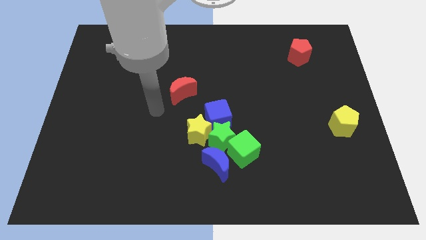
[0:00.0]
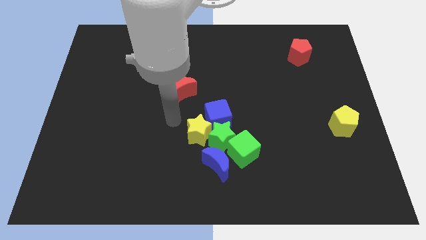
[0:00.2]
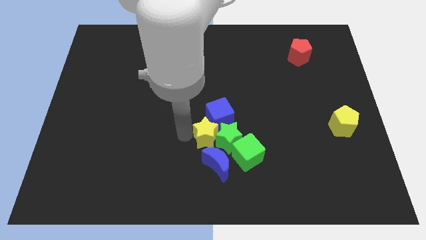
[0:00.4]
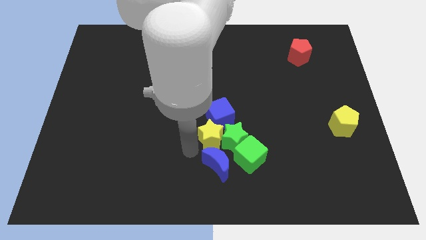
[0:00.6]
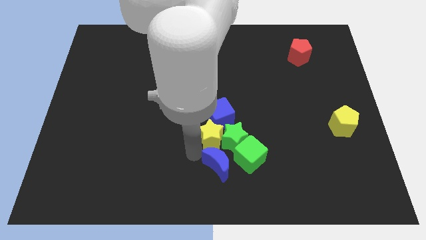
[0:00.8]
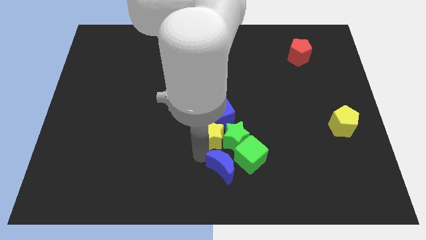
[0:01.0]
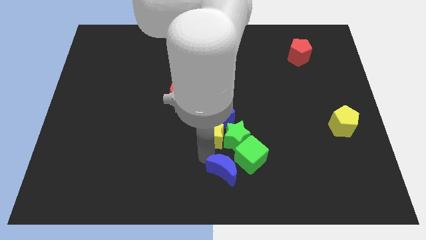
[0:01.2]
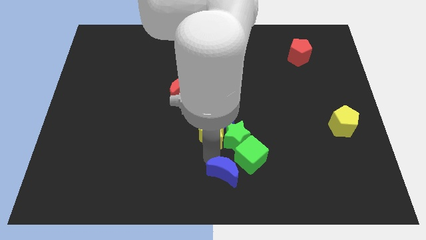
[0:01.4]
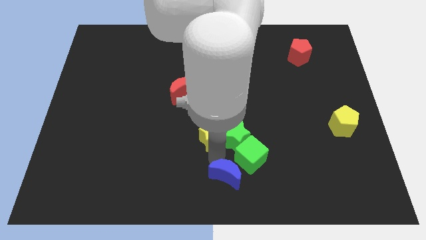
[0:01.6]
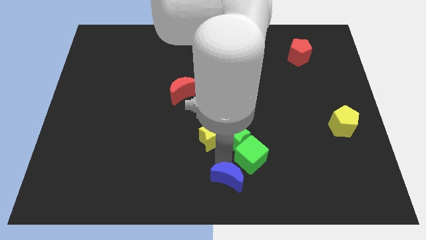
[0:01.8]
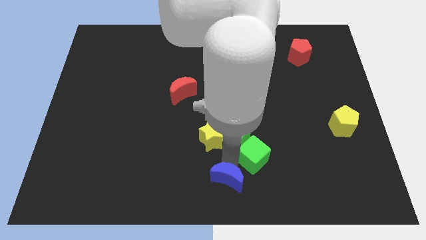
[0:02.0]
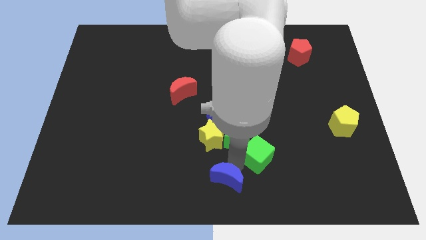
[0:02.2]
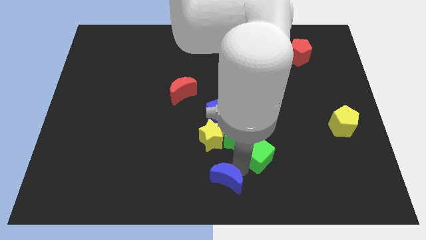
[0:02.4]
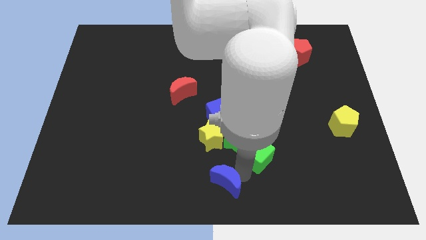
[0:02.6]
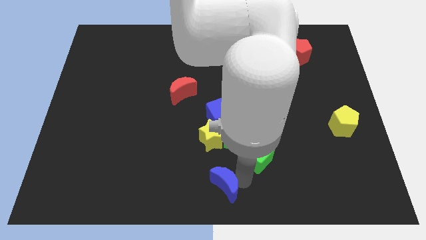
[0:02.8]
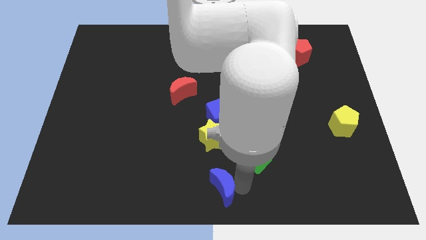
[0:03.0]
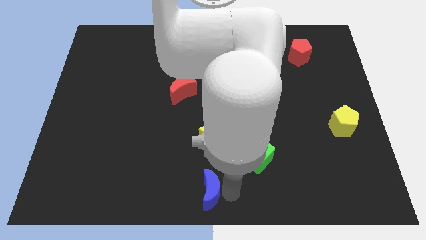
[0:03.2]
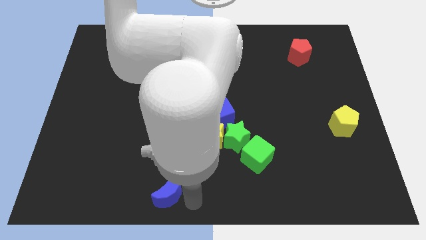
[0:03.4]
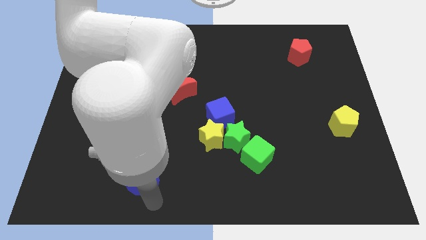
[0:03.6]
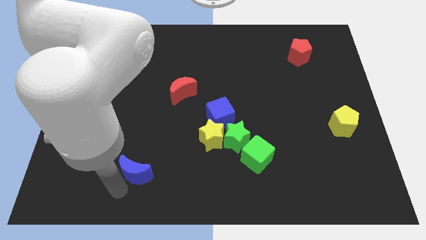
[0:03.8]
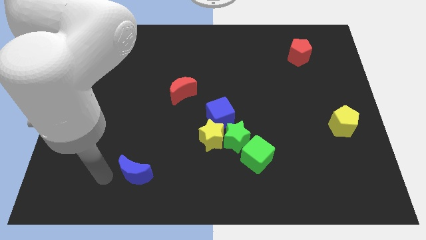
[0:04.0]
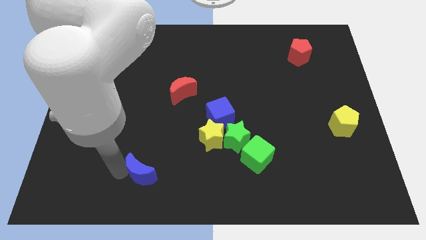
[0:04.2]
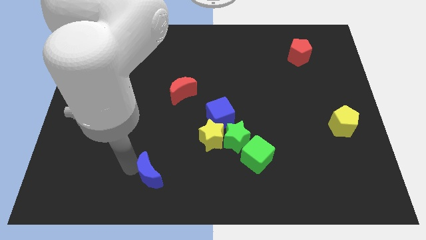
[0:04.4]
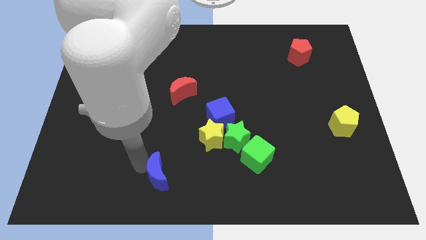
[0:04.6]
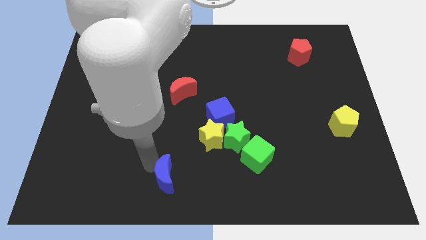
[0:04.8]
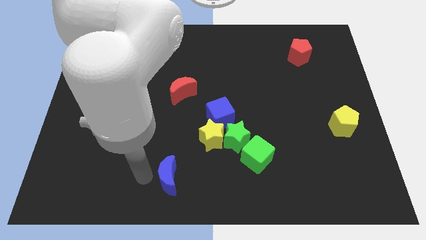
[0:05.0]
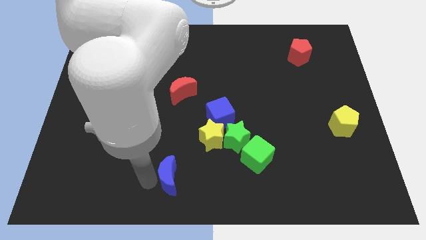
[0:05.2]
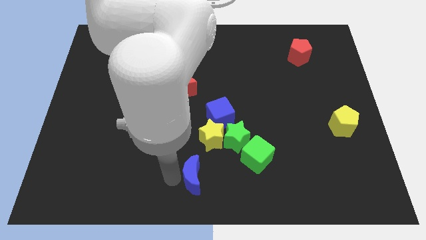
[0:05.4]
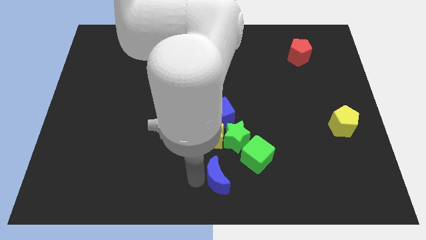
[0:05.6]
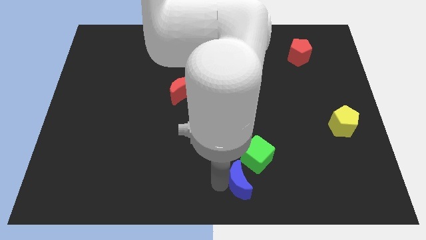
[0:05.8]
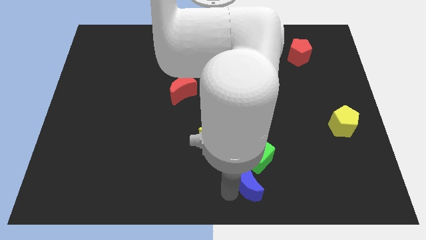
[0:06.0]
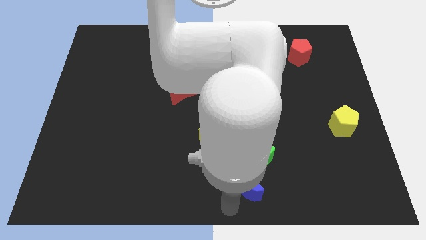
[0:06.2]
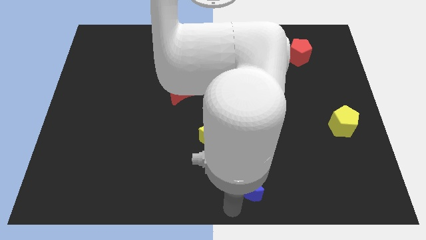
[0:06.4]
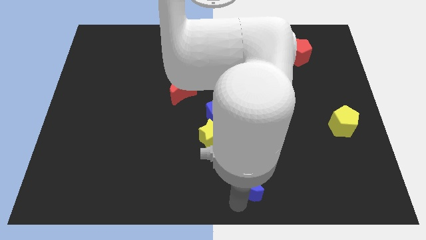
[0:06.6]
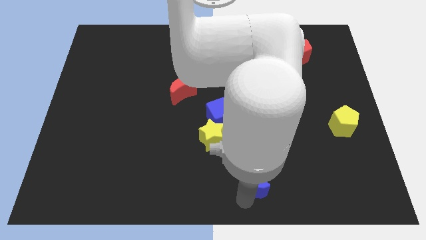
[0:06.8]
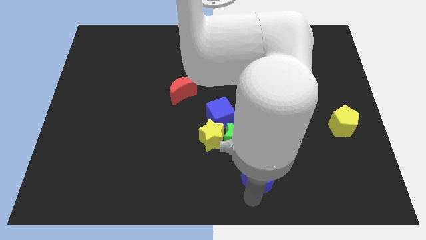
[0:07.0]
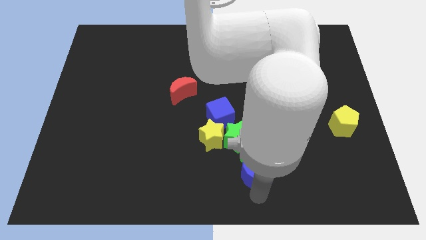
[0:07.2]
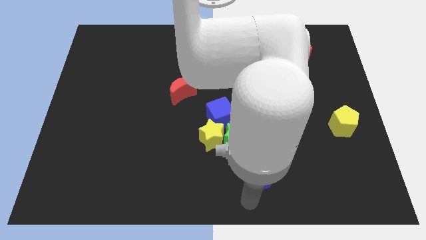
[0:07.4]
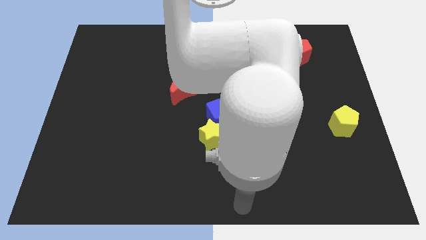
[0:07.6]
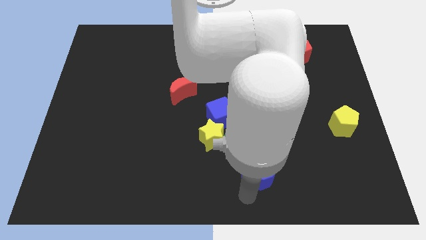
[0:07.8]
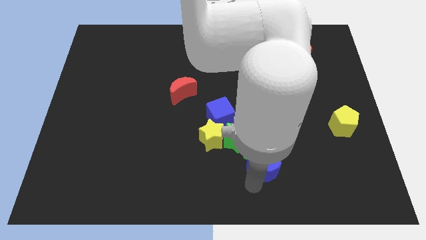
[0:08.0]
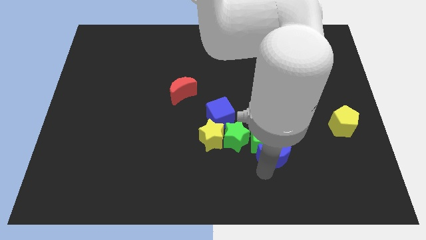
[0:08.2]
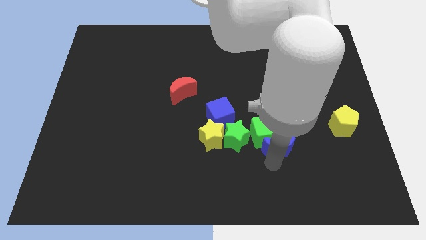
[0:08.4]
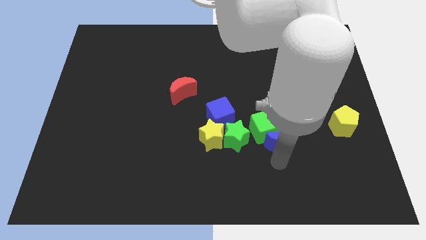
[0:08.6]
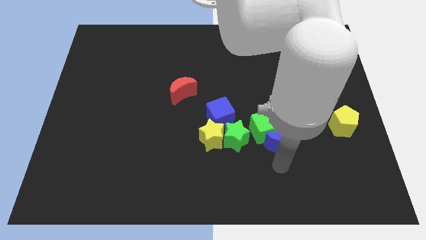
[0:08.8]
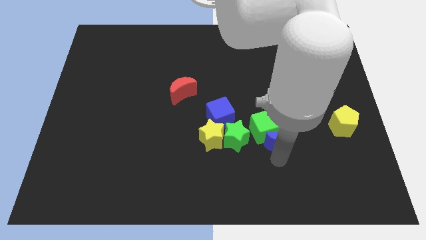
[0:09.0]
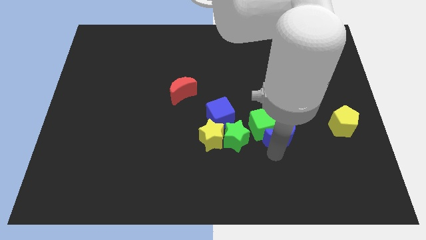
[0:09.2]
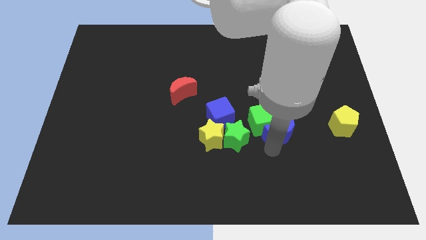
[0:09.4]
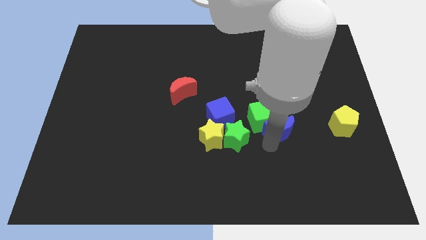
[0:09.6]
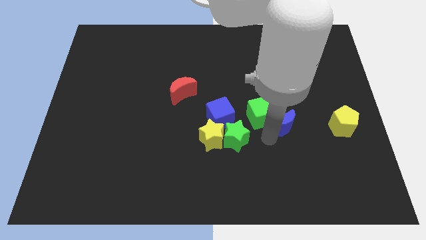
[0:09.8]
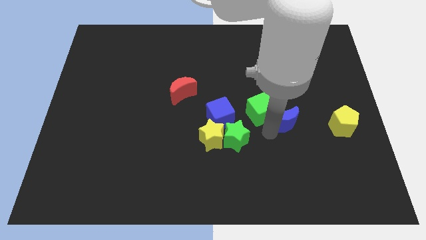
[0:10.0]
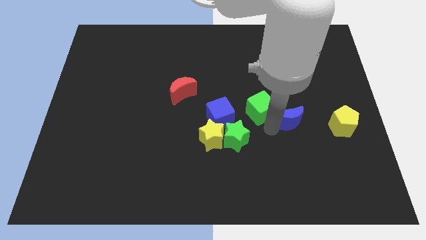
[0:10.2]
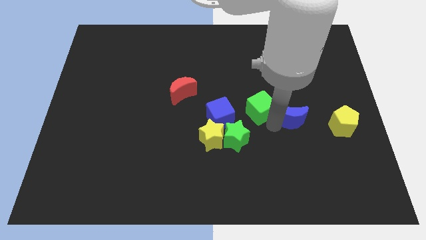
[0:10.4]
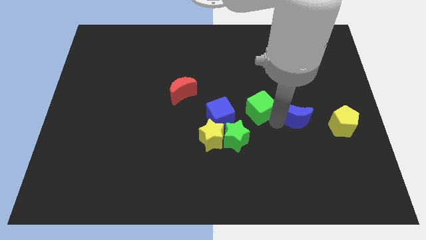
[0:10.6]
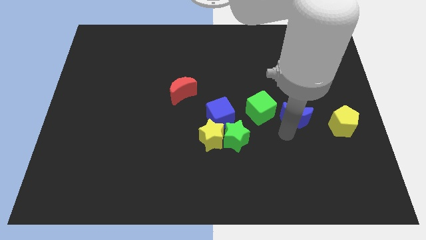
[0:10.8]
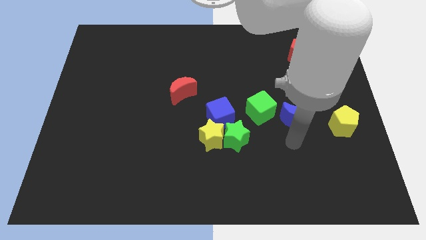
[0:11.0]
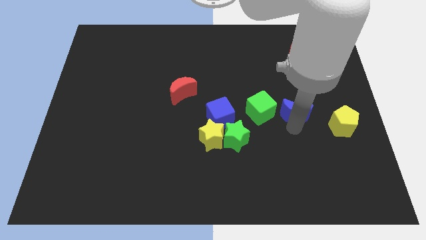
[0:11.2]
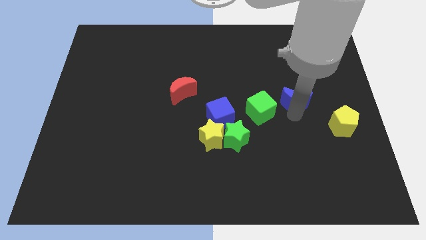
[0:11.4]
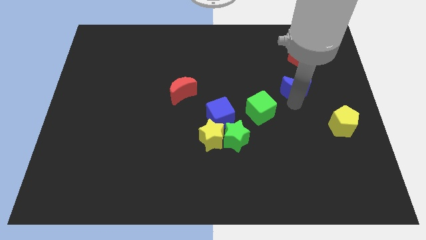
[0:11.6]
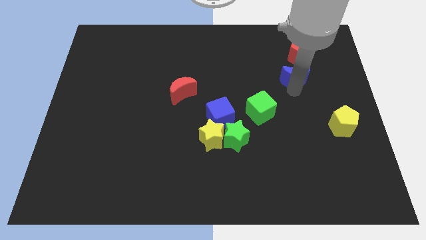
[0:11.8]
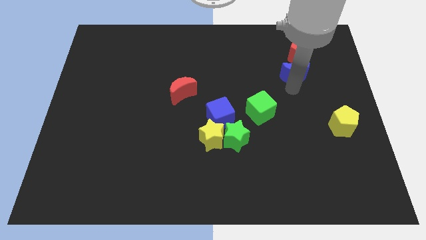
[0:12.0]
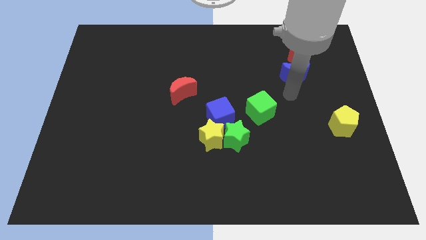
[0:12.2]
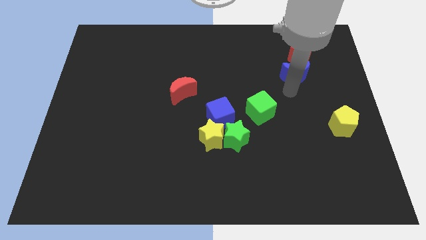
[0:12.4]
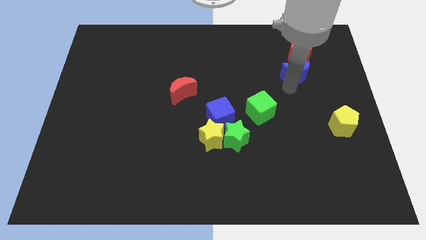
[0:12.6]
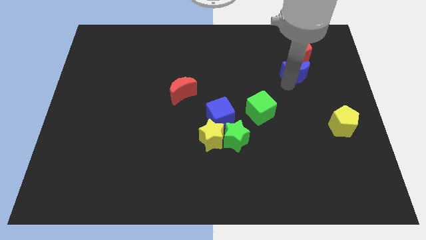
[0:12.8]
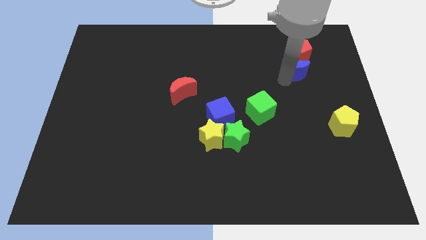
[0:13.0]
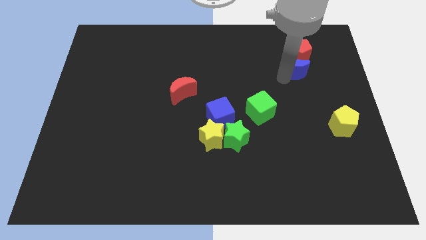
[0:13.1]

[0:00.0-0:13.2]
put the blue moon next to the red pentagon

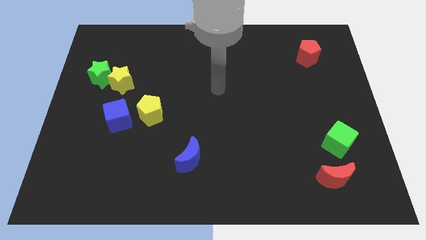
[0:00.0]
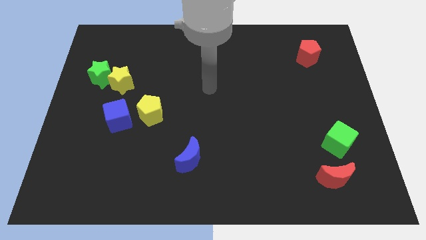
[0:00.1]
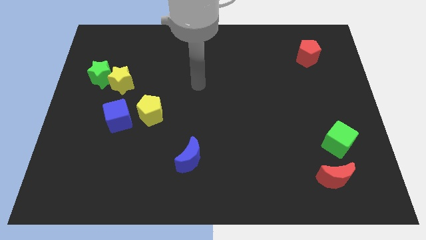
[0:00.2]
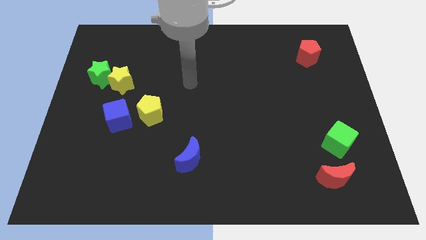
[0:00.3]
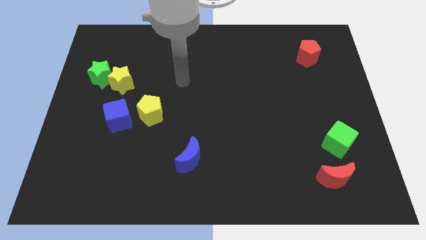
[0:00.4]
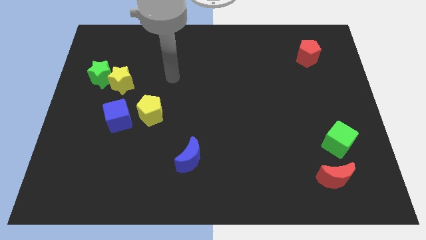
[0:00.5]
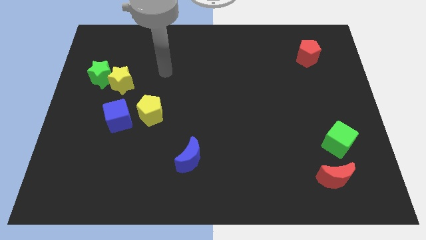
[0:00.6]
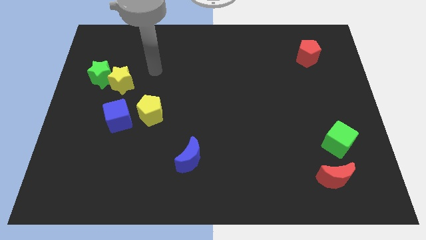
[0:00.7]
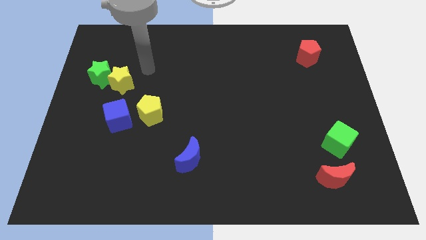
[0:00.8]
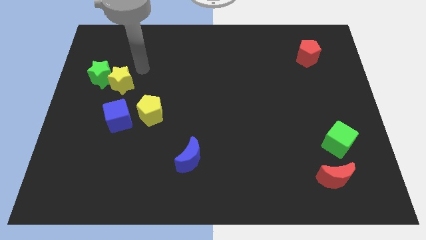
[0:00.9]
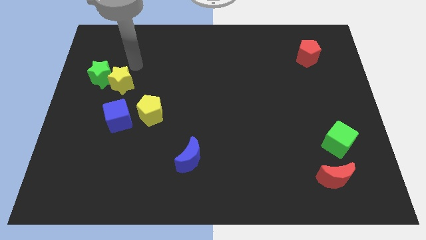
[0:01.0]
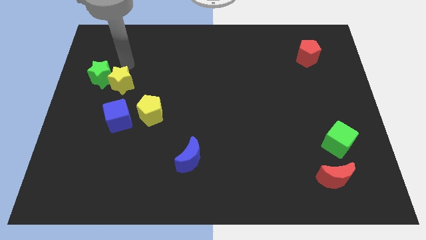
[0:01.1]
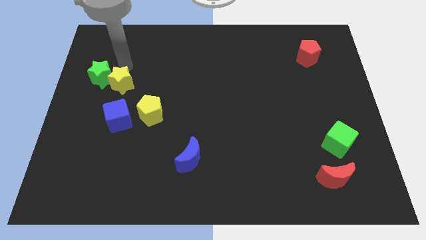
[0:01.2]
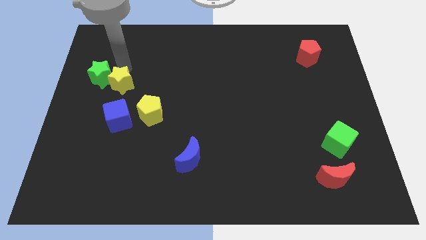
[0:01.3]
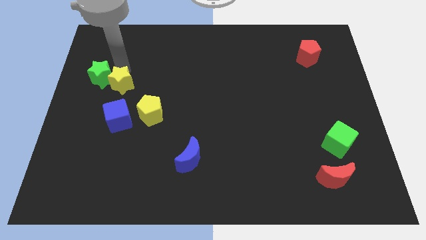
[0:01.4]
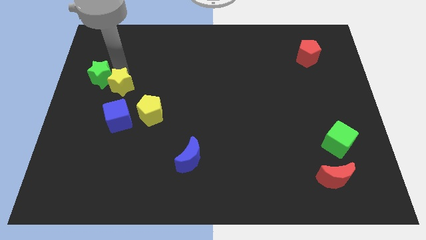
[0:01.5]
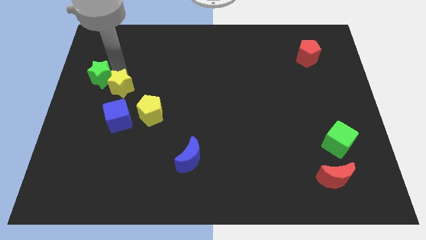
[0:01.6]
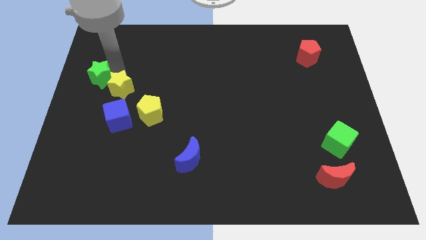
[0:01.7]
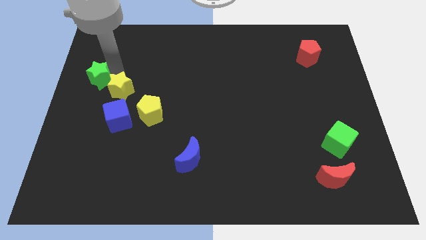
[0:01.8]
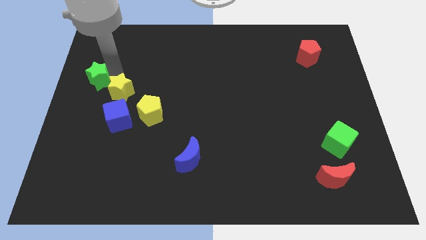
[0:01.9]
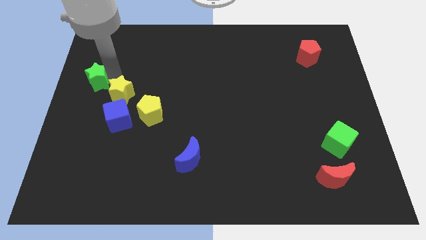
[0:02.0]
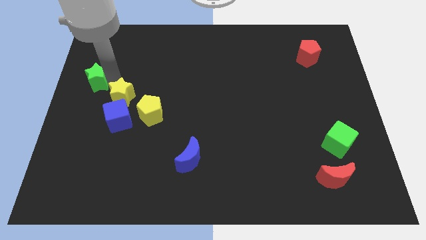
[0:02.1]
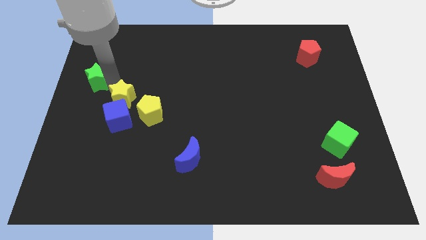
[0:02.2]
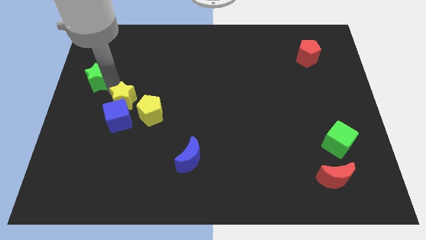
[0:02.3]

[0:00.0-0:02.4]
push the yellow star to the blue cube
